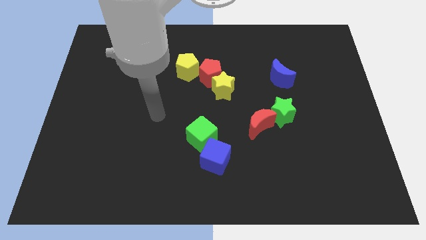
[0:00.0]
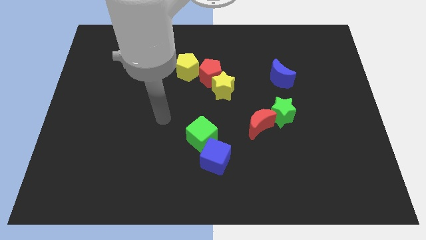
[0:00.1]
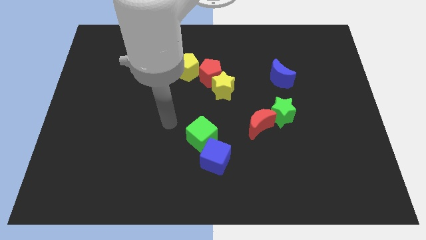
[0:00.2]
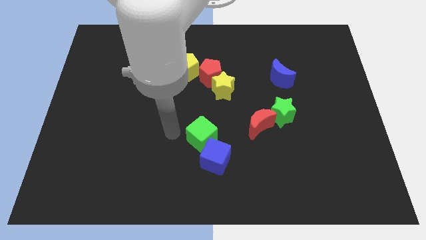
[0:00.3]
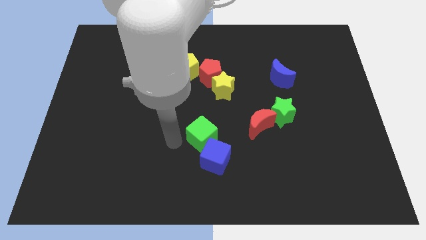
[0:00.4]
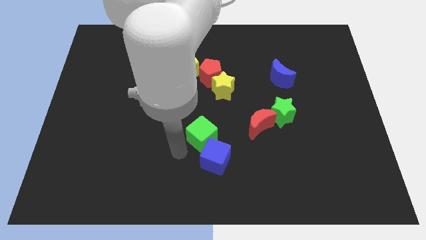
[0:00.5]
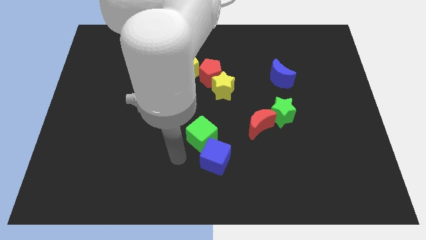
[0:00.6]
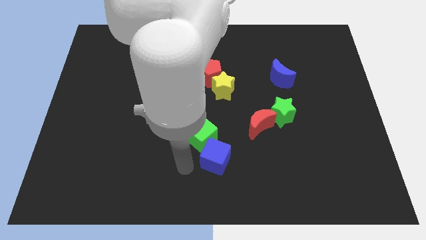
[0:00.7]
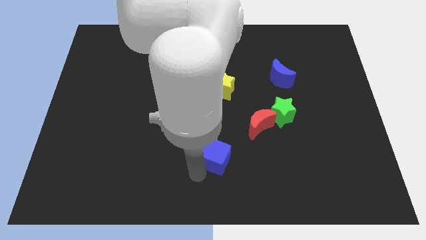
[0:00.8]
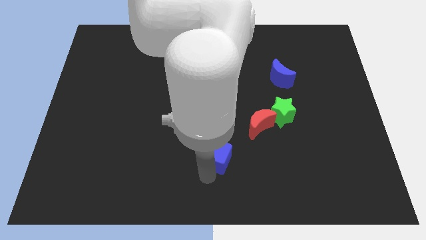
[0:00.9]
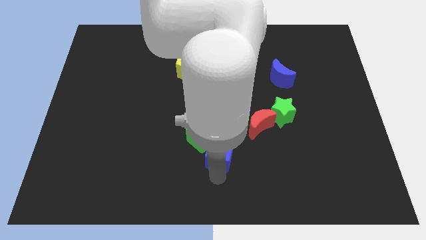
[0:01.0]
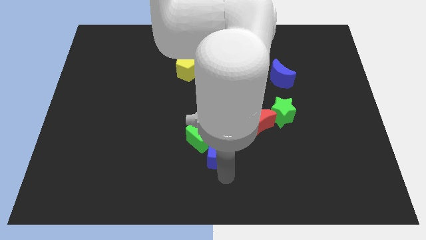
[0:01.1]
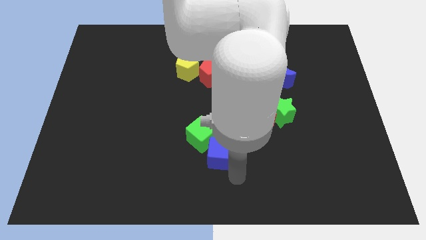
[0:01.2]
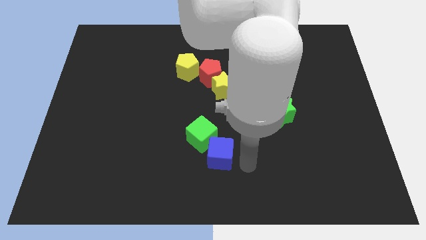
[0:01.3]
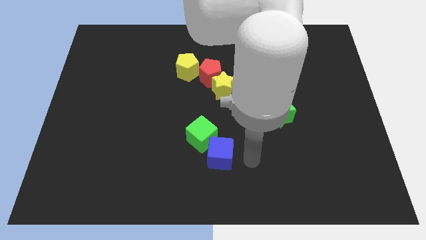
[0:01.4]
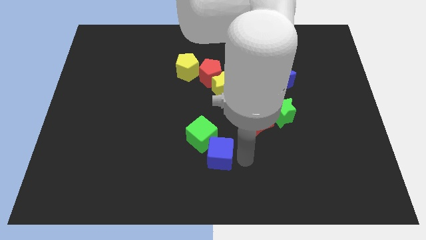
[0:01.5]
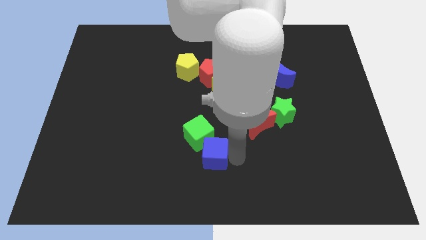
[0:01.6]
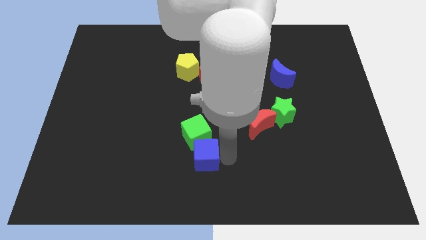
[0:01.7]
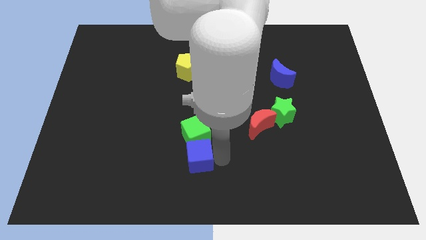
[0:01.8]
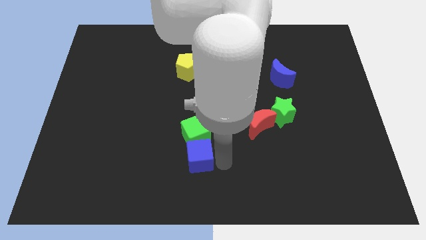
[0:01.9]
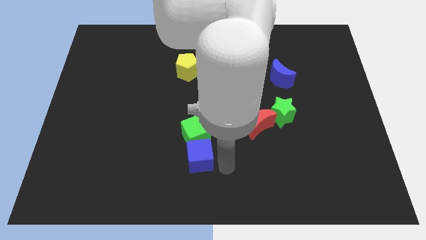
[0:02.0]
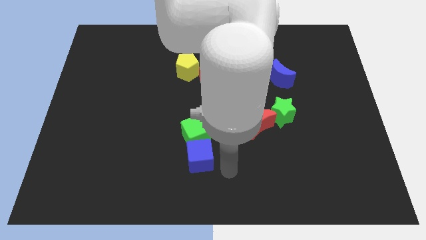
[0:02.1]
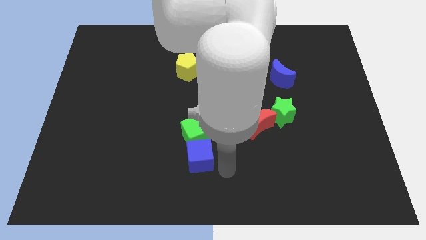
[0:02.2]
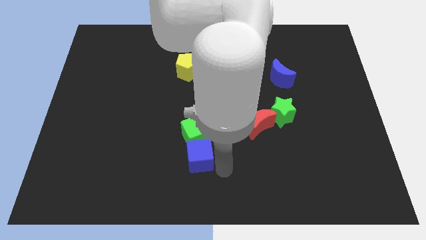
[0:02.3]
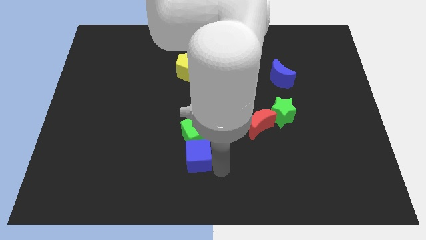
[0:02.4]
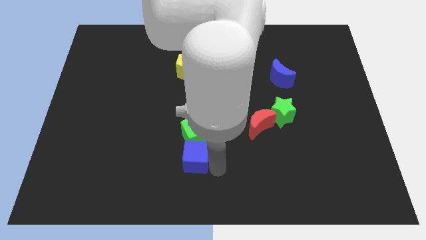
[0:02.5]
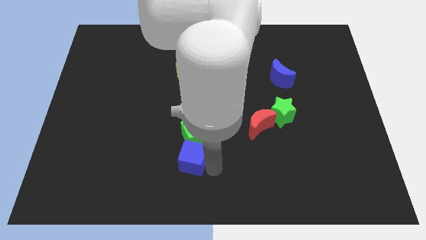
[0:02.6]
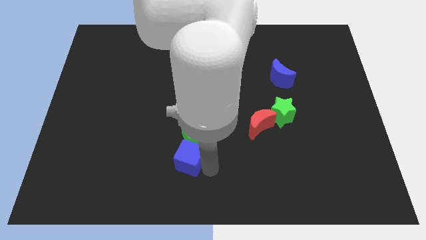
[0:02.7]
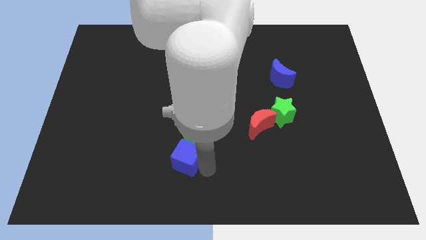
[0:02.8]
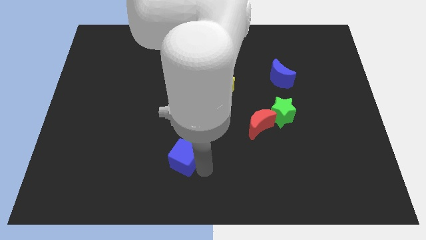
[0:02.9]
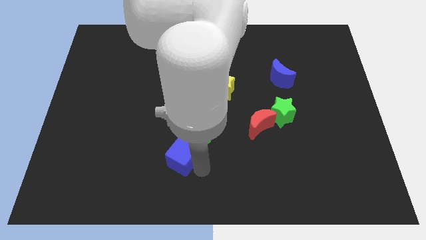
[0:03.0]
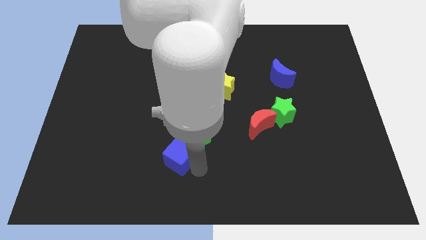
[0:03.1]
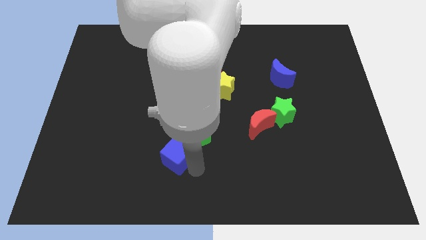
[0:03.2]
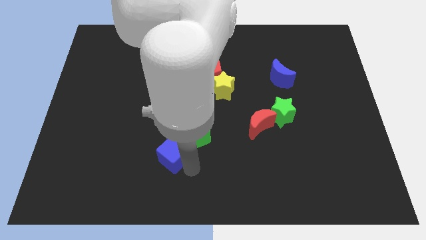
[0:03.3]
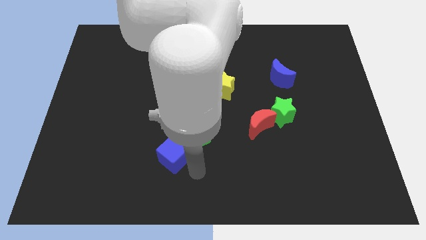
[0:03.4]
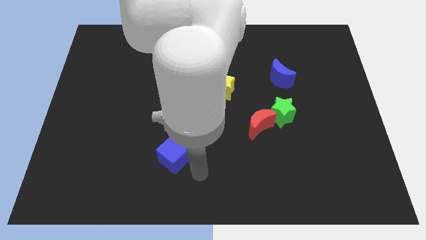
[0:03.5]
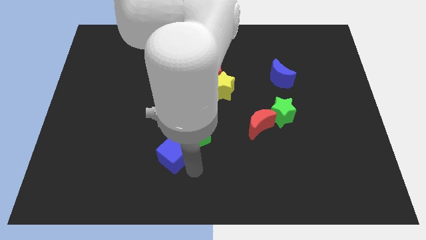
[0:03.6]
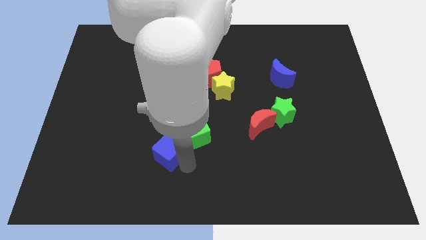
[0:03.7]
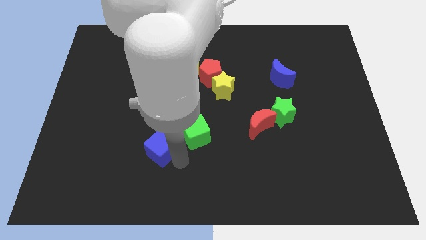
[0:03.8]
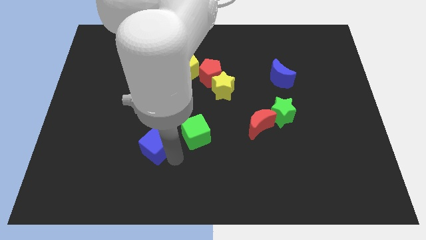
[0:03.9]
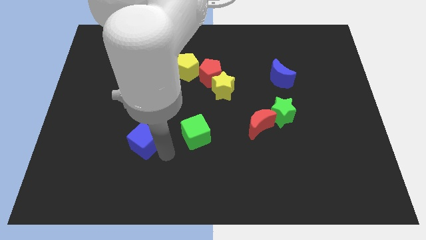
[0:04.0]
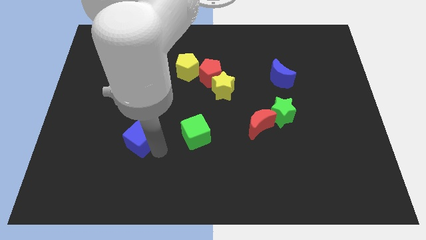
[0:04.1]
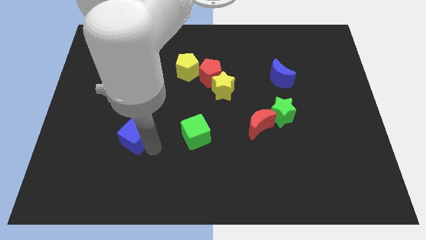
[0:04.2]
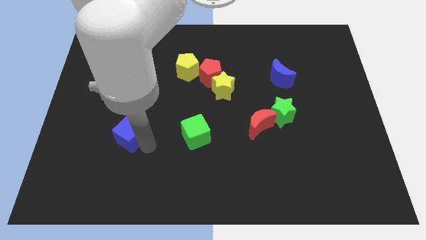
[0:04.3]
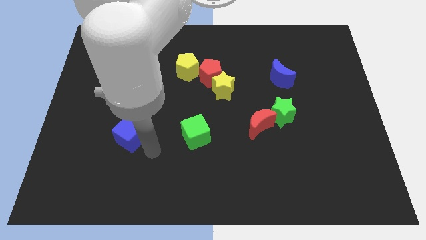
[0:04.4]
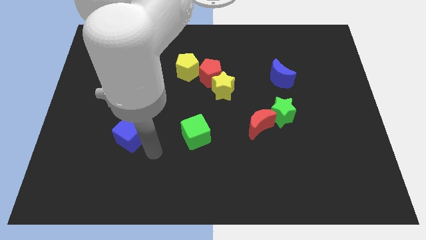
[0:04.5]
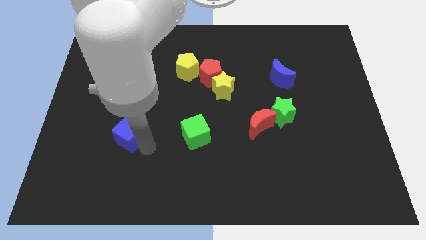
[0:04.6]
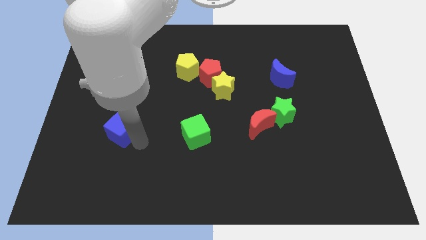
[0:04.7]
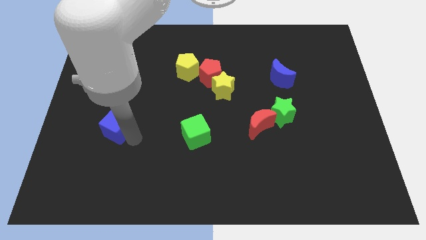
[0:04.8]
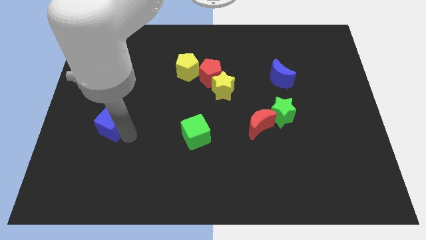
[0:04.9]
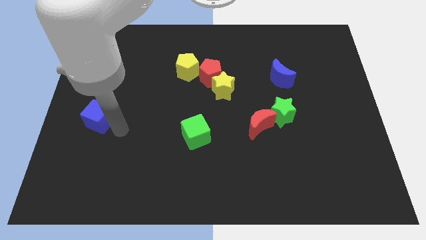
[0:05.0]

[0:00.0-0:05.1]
push the blue cube to the left side

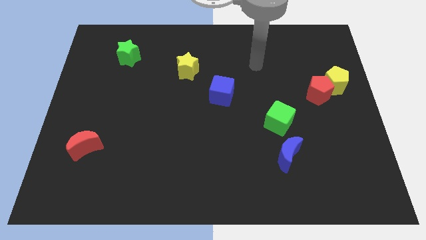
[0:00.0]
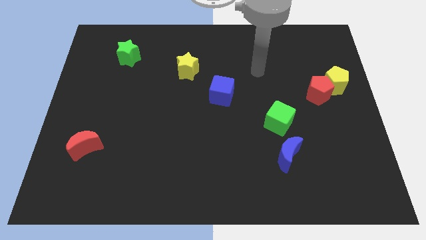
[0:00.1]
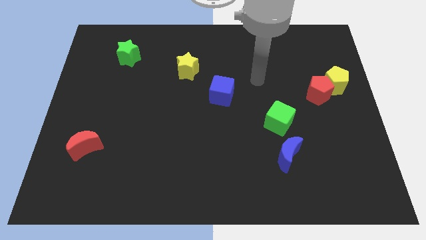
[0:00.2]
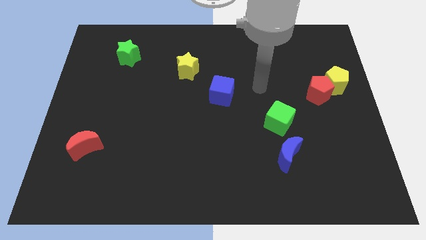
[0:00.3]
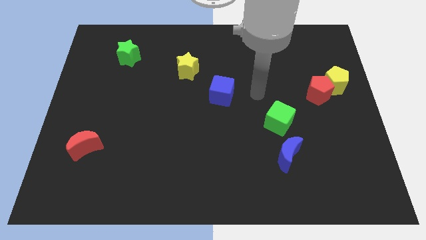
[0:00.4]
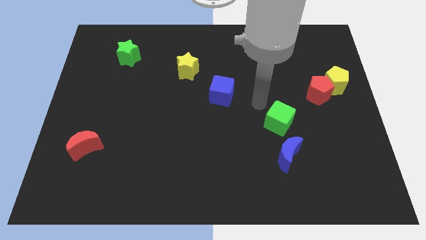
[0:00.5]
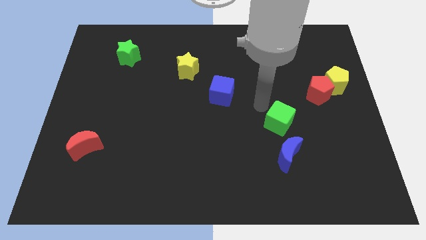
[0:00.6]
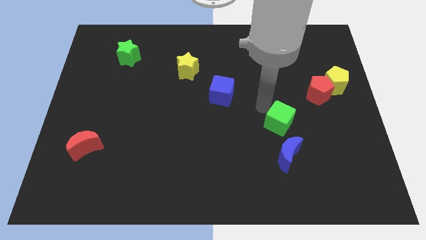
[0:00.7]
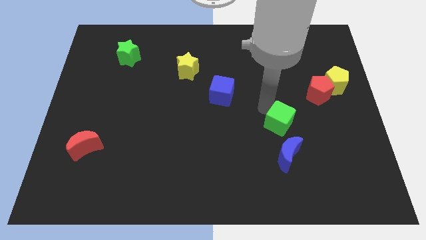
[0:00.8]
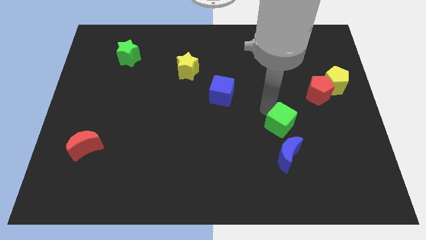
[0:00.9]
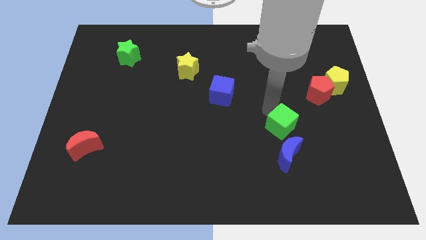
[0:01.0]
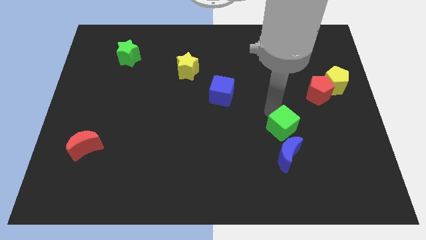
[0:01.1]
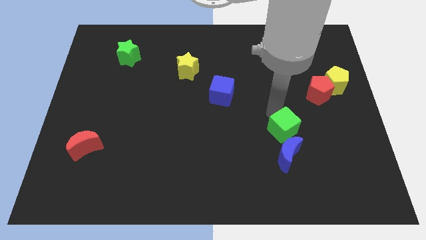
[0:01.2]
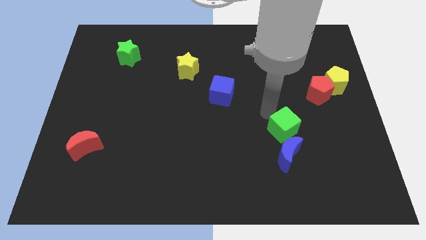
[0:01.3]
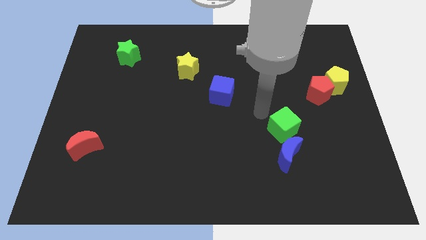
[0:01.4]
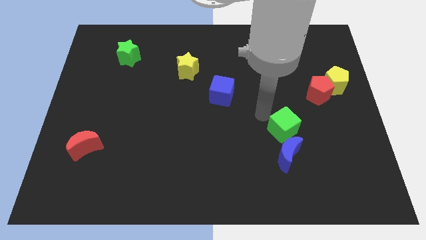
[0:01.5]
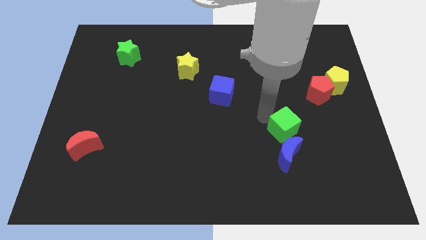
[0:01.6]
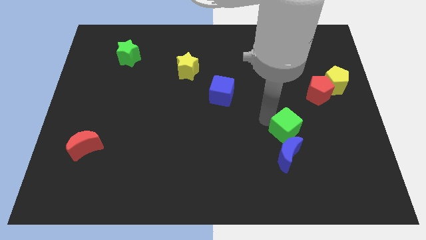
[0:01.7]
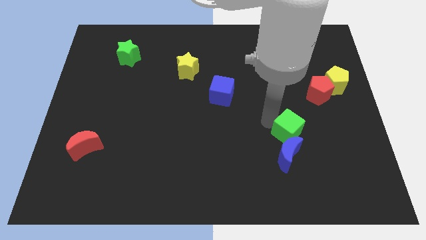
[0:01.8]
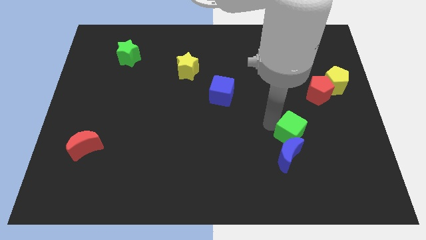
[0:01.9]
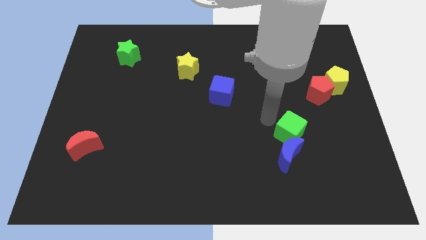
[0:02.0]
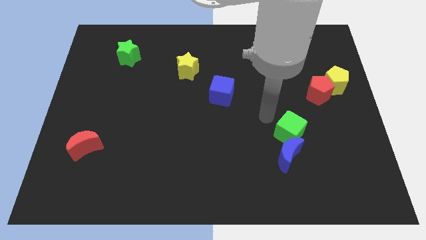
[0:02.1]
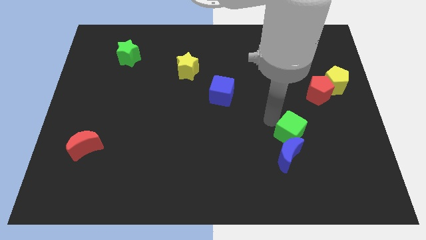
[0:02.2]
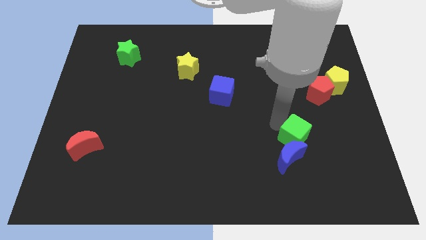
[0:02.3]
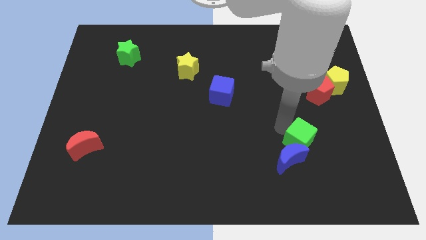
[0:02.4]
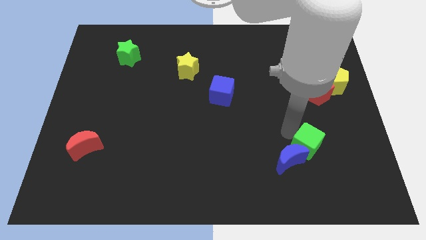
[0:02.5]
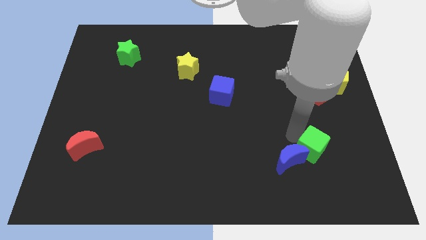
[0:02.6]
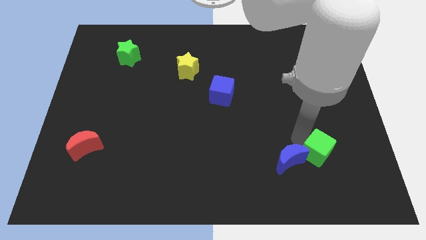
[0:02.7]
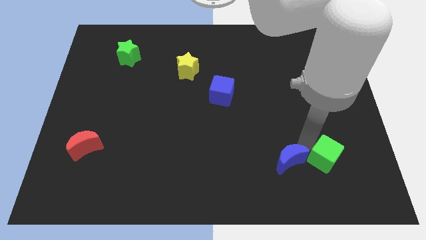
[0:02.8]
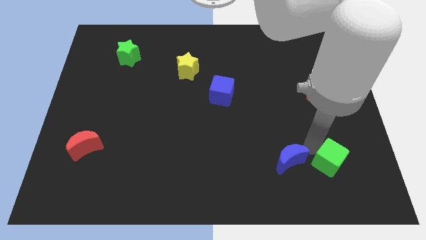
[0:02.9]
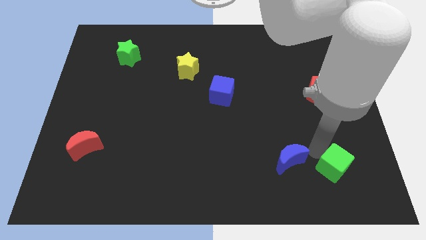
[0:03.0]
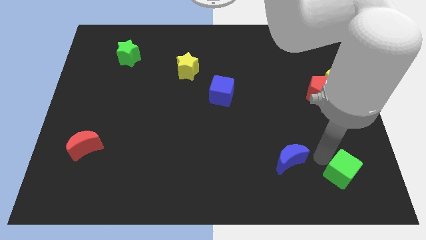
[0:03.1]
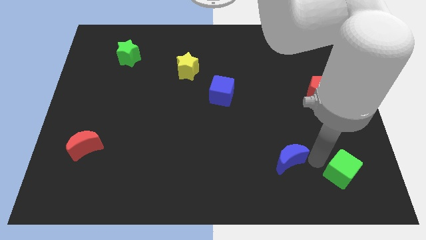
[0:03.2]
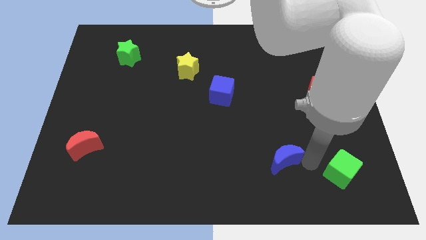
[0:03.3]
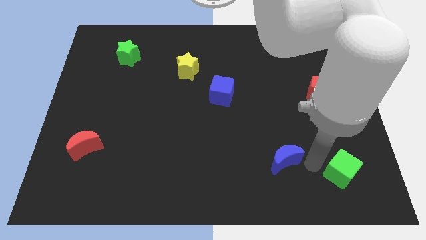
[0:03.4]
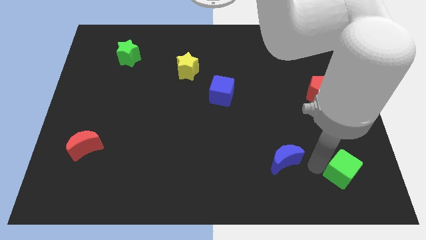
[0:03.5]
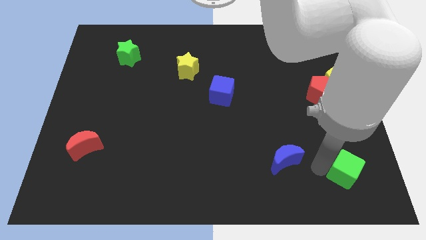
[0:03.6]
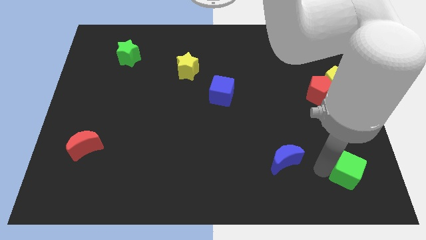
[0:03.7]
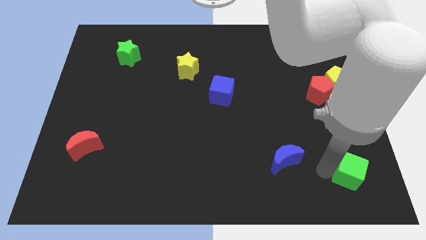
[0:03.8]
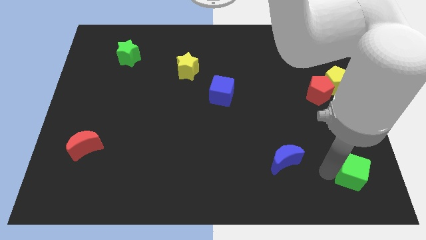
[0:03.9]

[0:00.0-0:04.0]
put the green cube to the bottom right of the board
